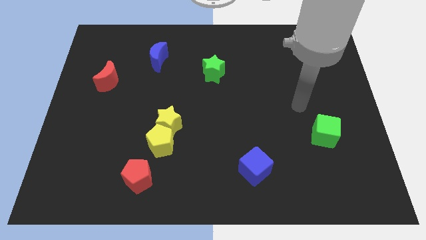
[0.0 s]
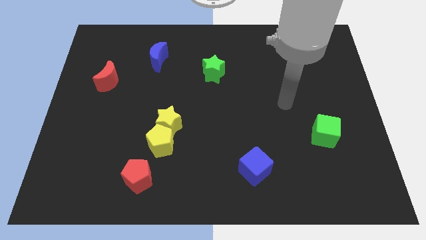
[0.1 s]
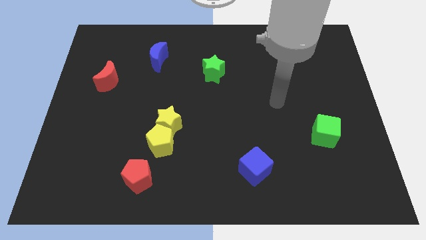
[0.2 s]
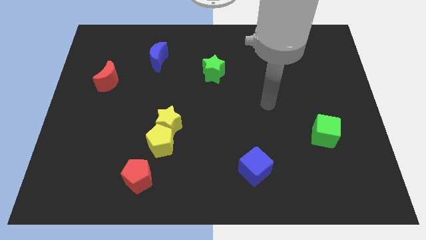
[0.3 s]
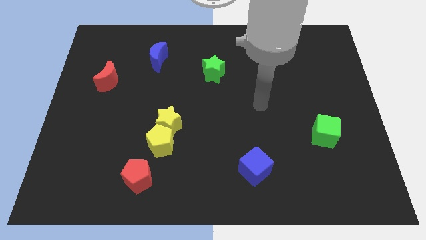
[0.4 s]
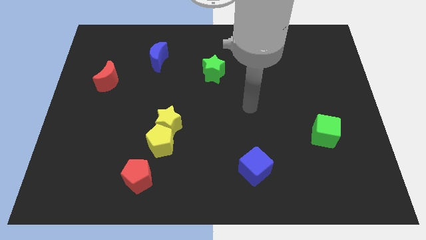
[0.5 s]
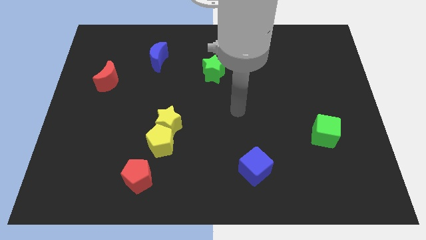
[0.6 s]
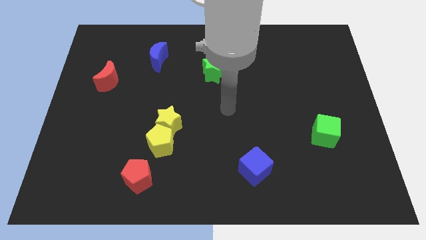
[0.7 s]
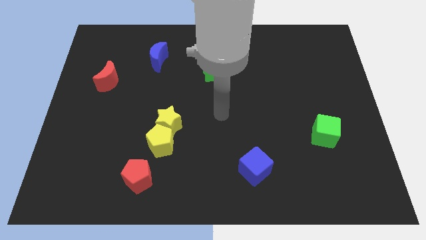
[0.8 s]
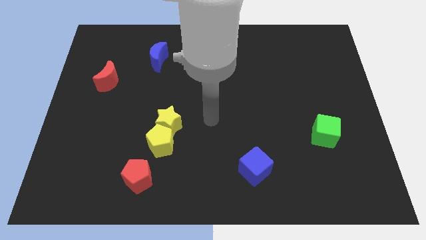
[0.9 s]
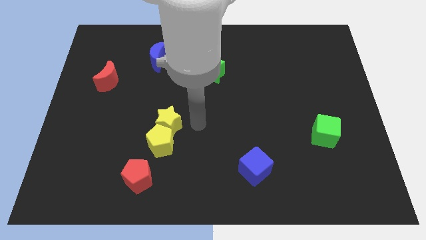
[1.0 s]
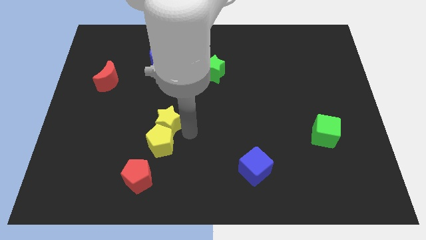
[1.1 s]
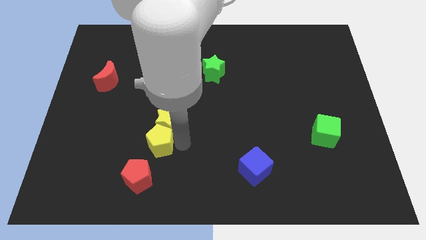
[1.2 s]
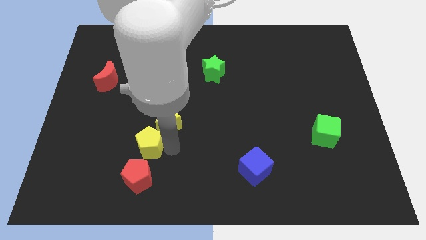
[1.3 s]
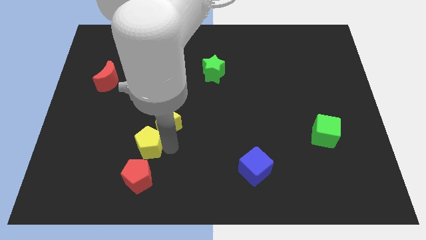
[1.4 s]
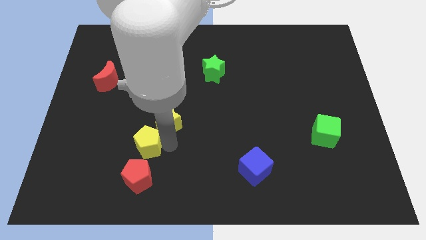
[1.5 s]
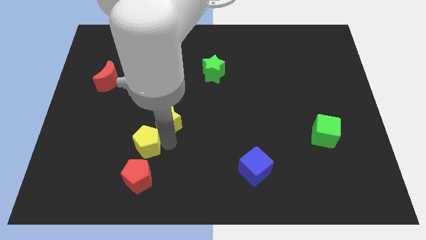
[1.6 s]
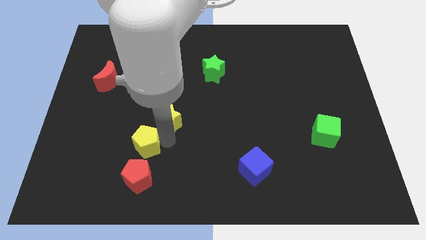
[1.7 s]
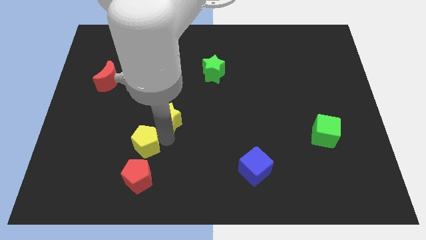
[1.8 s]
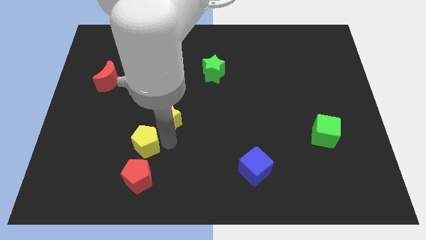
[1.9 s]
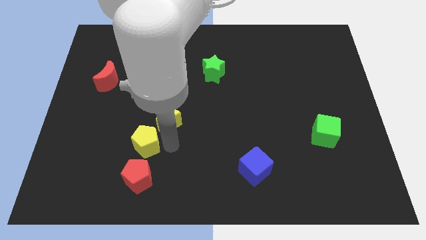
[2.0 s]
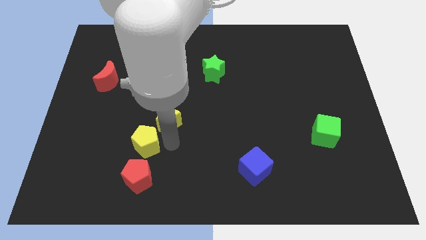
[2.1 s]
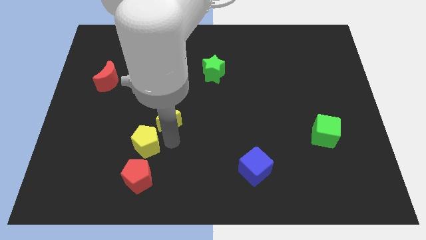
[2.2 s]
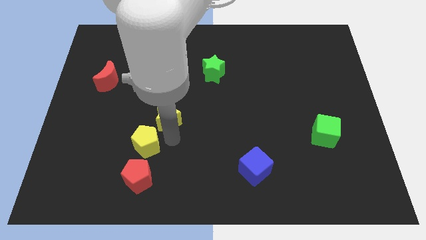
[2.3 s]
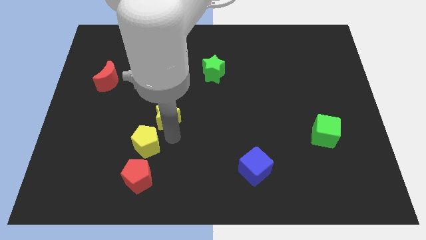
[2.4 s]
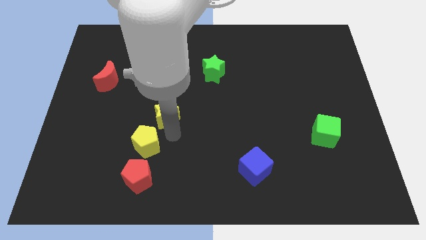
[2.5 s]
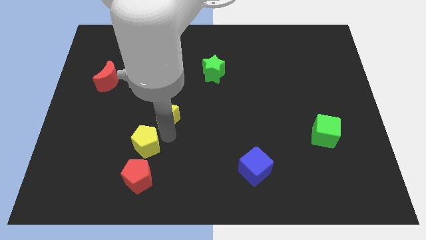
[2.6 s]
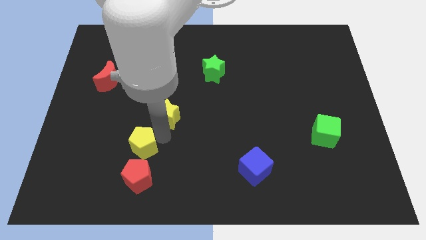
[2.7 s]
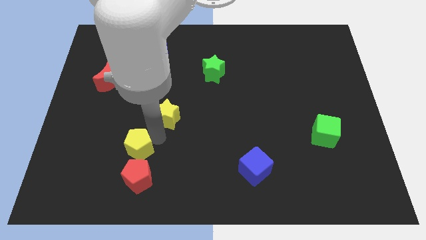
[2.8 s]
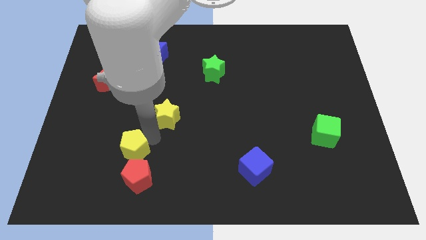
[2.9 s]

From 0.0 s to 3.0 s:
pull the yellow star apart from the yellow pentagon

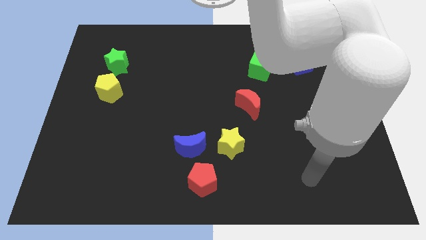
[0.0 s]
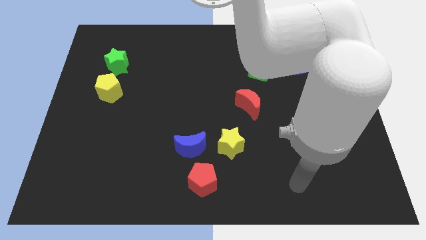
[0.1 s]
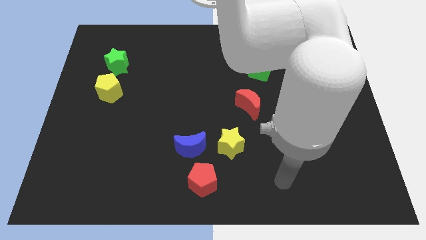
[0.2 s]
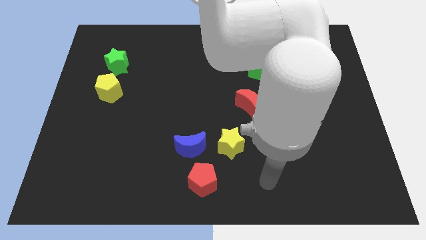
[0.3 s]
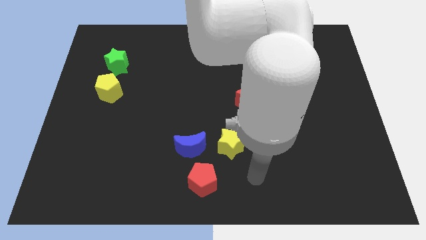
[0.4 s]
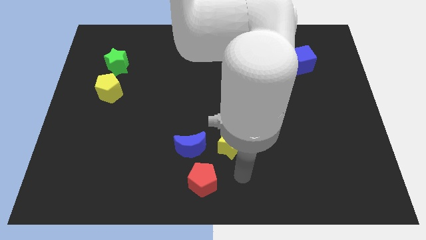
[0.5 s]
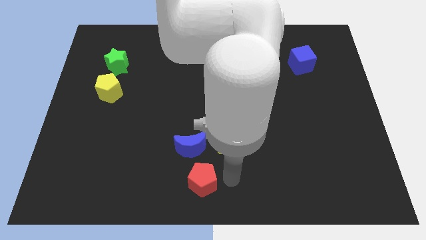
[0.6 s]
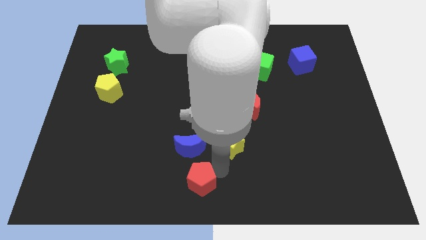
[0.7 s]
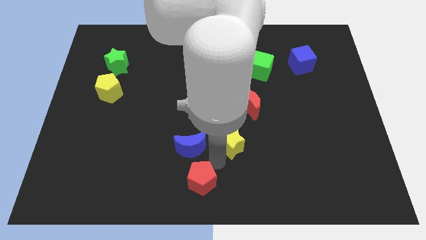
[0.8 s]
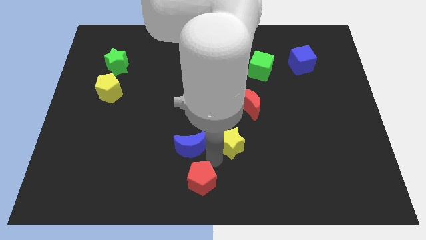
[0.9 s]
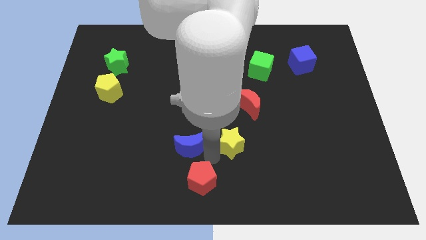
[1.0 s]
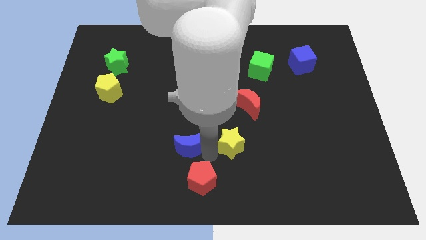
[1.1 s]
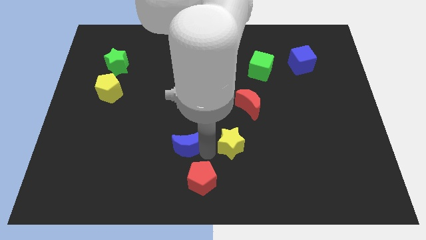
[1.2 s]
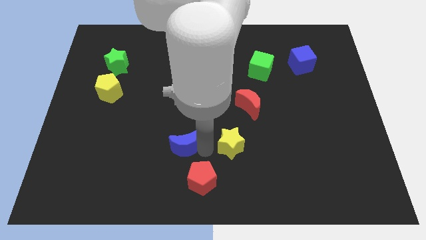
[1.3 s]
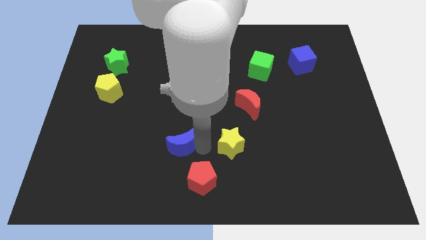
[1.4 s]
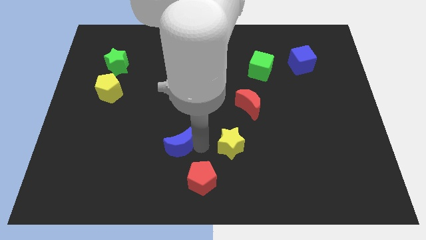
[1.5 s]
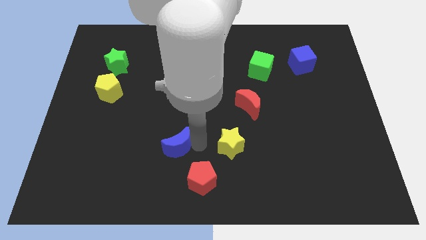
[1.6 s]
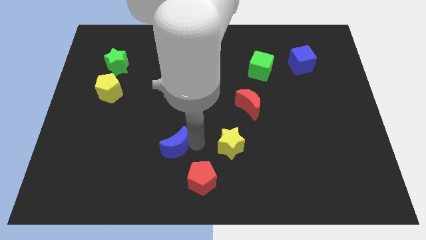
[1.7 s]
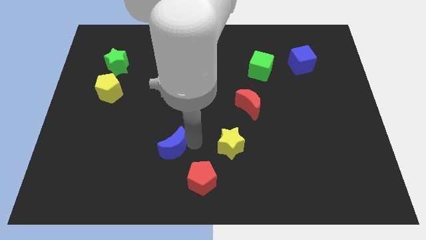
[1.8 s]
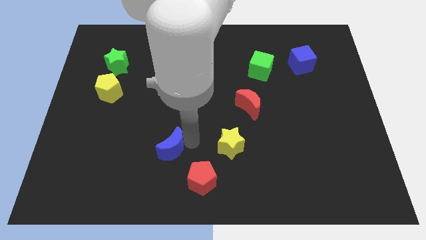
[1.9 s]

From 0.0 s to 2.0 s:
move the blue moon away from the red pentagon and yellow star

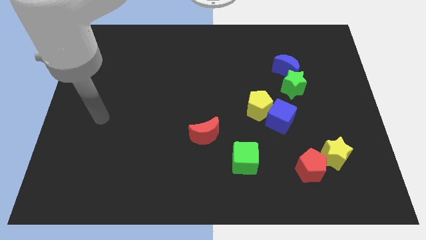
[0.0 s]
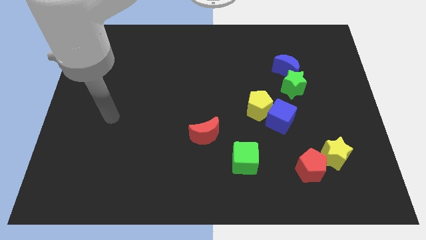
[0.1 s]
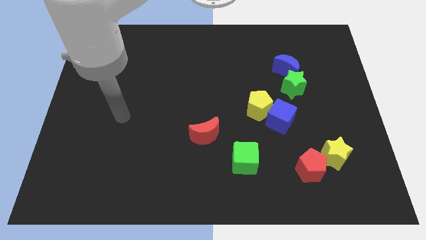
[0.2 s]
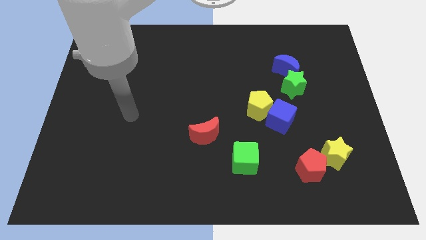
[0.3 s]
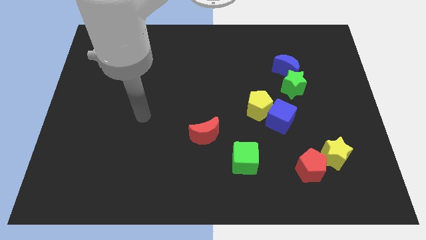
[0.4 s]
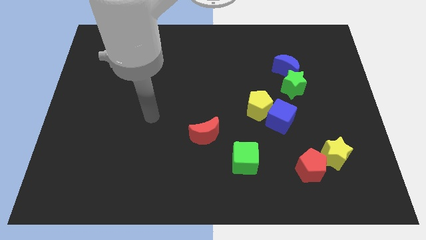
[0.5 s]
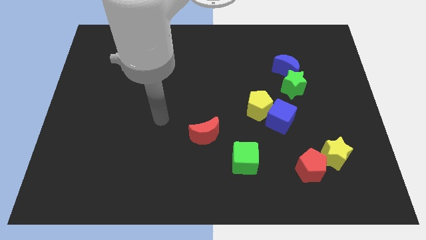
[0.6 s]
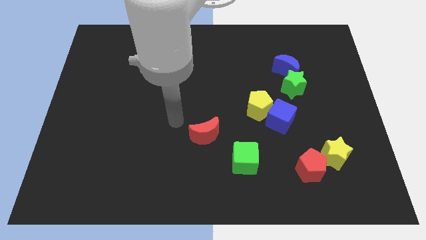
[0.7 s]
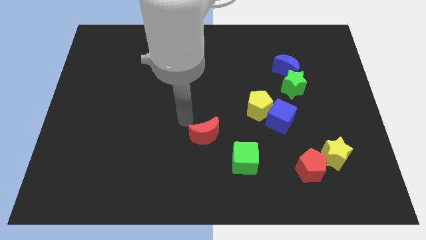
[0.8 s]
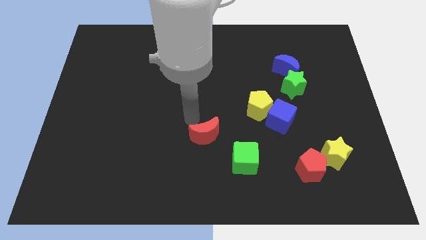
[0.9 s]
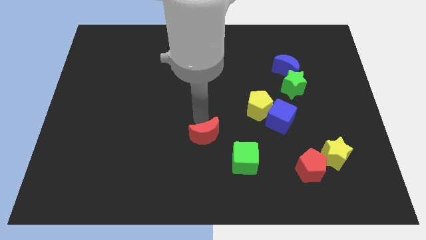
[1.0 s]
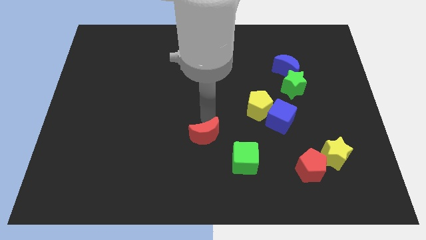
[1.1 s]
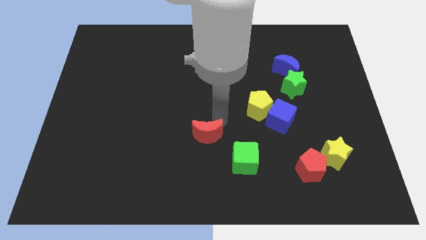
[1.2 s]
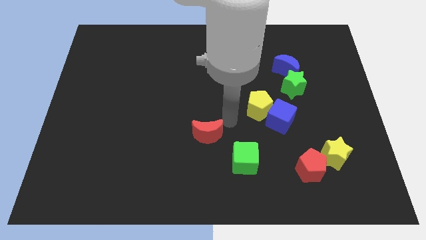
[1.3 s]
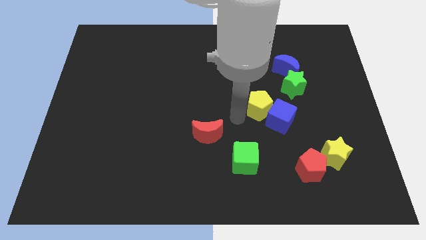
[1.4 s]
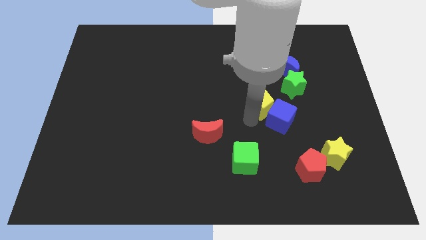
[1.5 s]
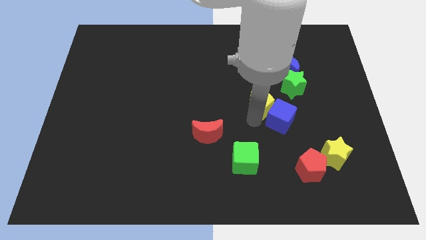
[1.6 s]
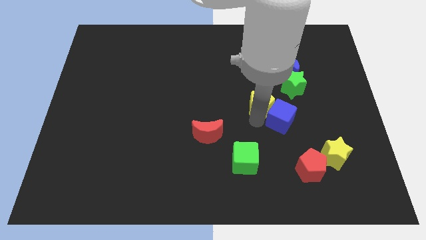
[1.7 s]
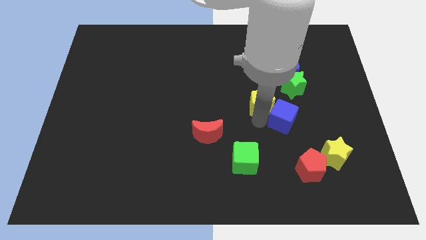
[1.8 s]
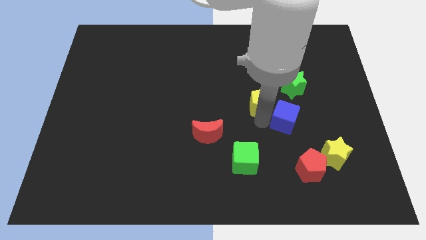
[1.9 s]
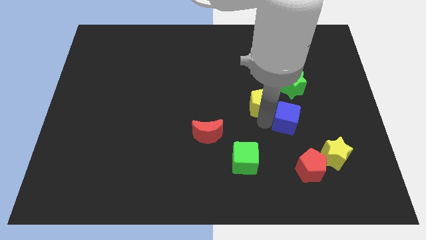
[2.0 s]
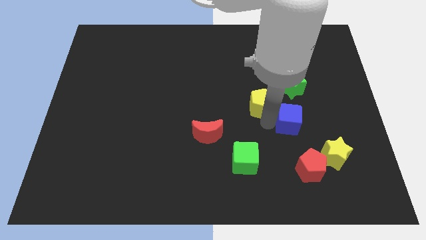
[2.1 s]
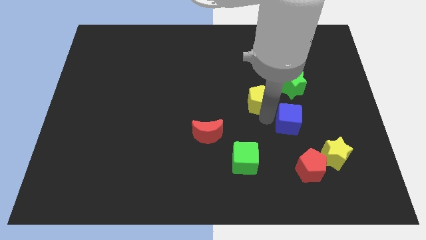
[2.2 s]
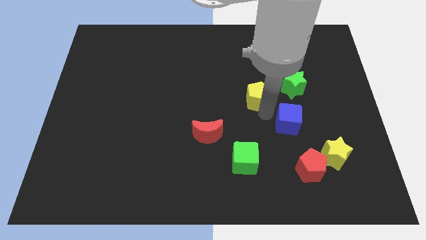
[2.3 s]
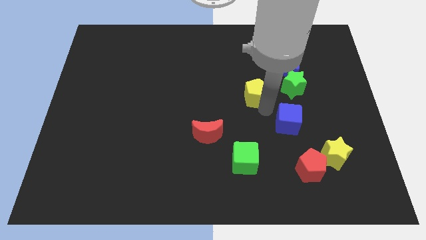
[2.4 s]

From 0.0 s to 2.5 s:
move the blue cube away from the yellow pentagon

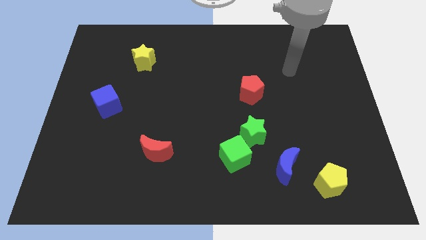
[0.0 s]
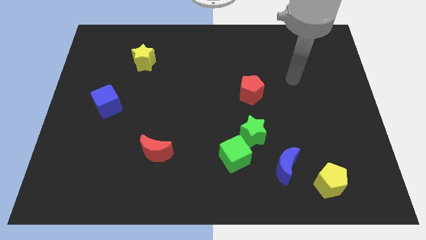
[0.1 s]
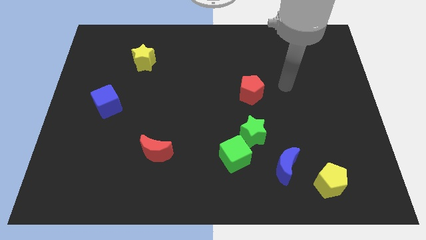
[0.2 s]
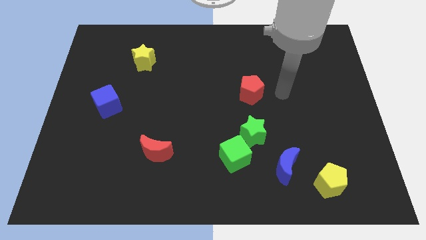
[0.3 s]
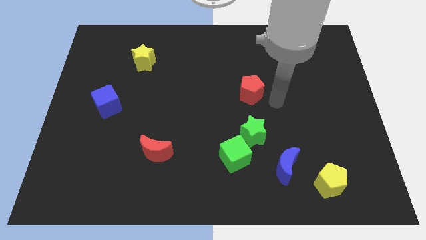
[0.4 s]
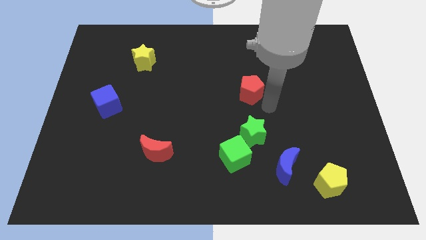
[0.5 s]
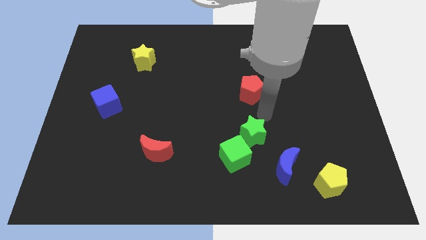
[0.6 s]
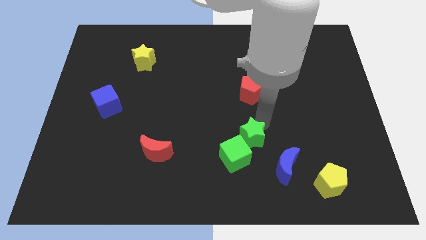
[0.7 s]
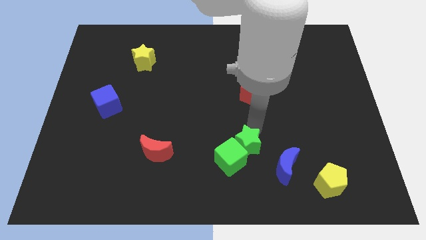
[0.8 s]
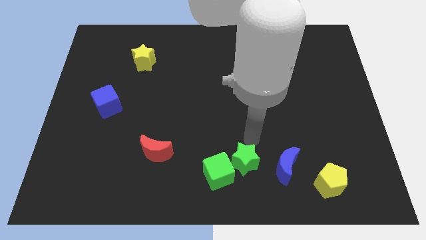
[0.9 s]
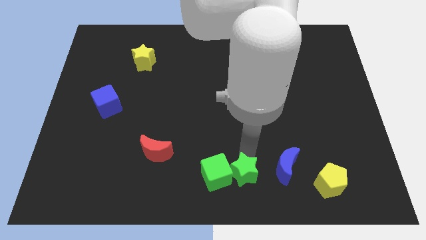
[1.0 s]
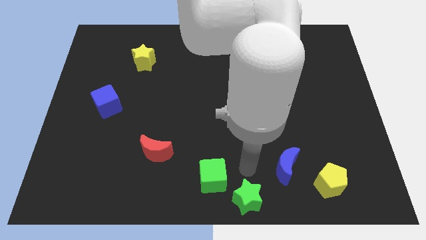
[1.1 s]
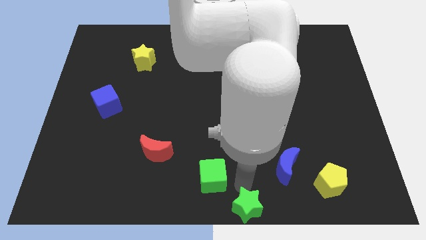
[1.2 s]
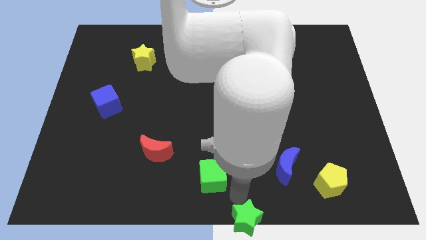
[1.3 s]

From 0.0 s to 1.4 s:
pull the green cube apart from the green star

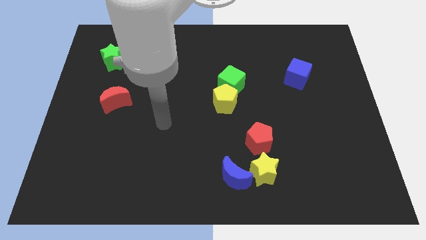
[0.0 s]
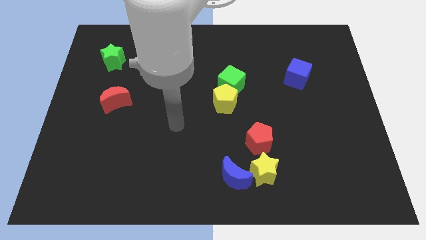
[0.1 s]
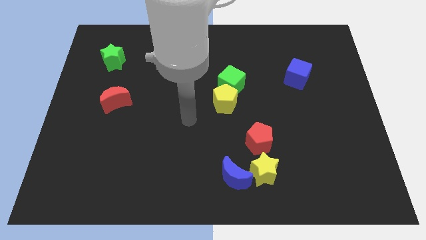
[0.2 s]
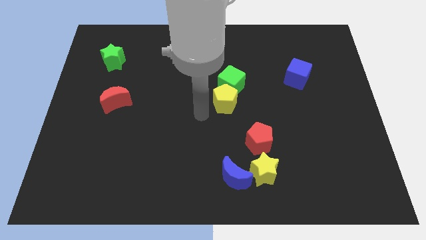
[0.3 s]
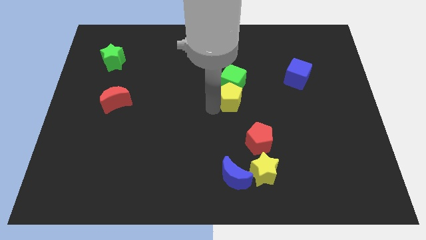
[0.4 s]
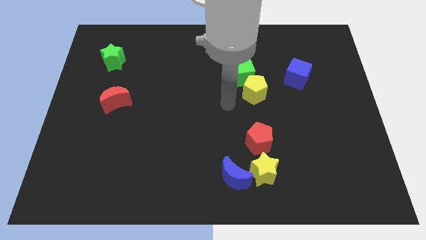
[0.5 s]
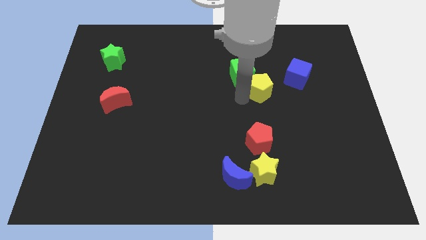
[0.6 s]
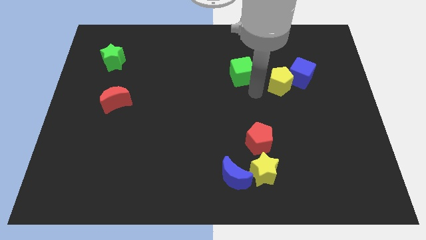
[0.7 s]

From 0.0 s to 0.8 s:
move the green cube away from the yellow pentagon
